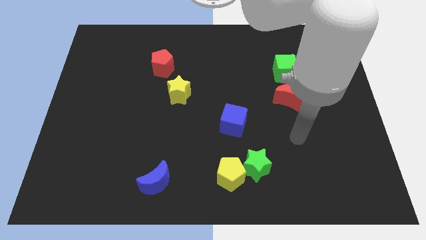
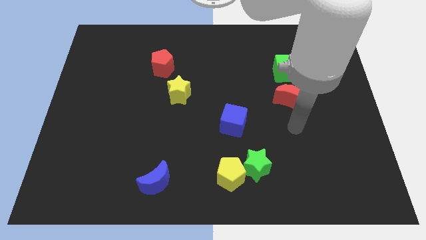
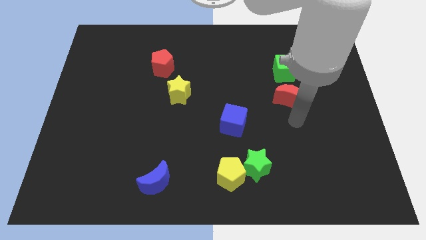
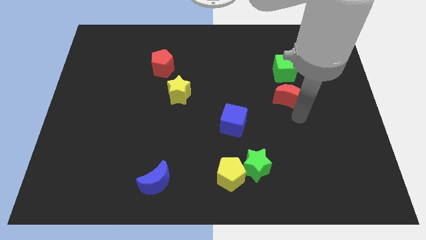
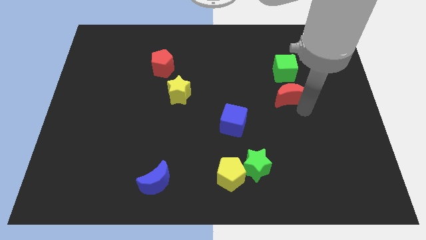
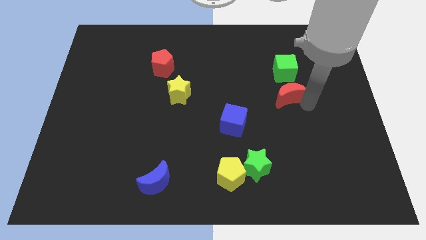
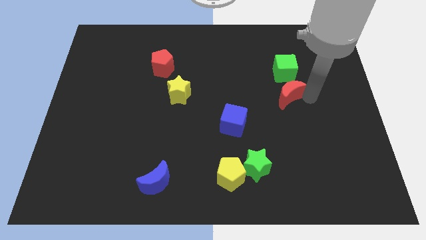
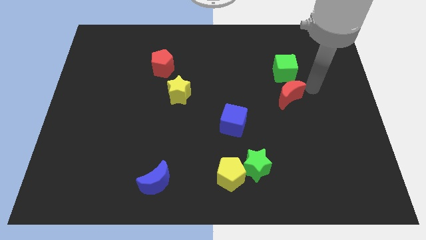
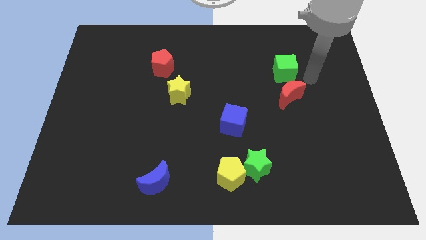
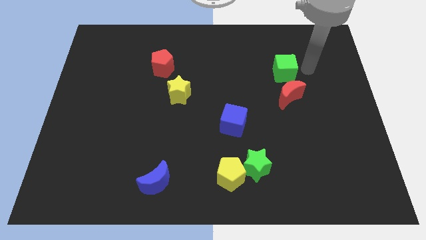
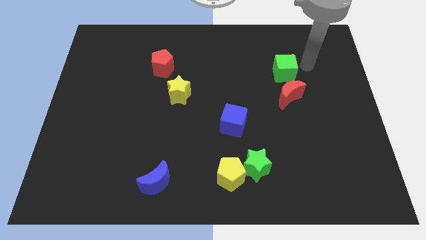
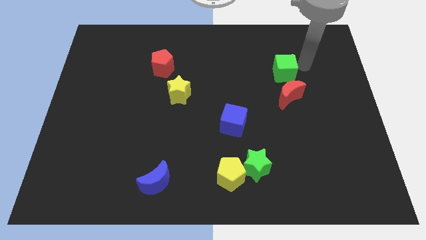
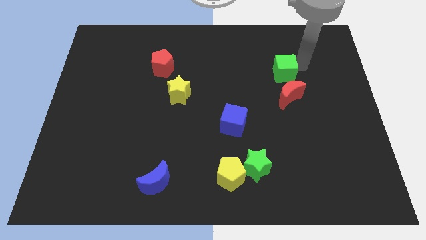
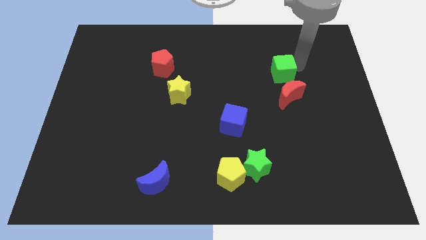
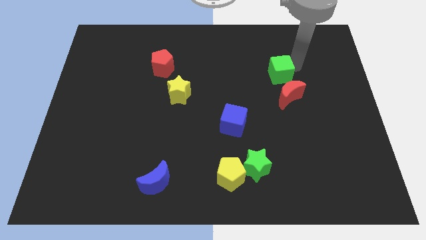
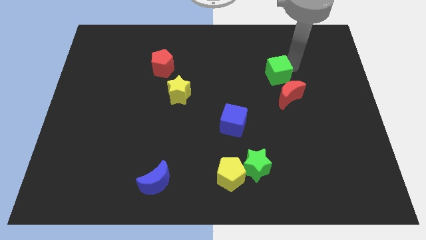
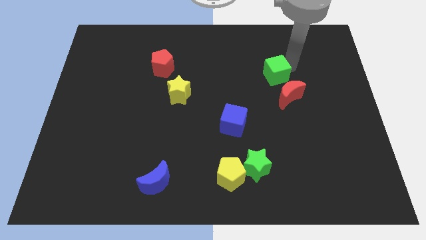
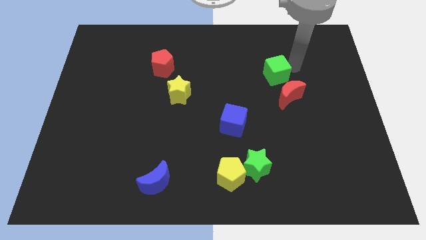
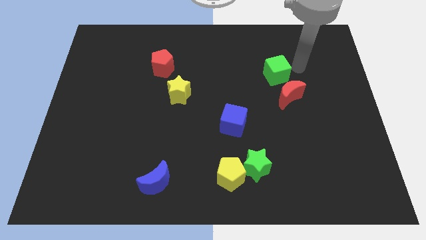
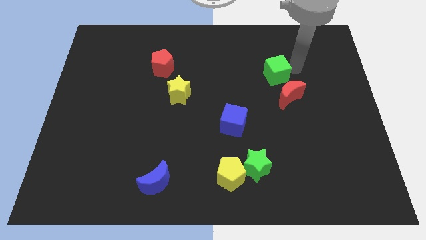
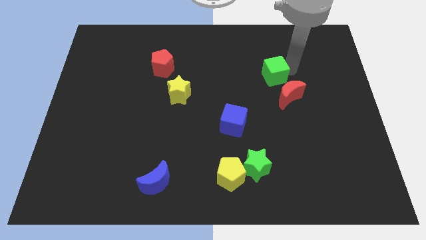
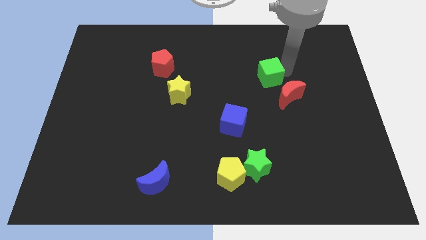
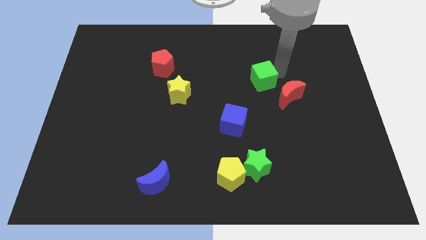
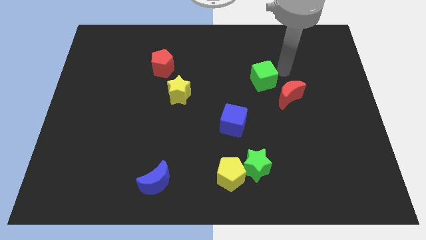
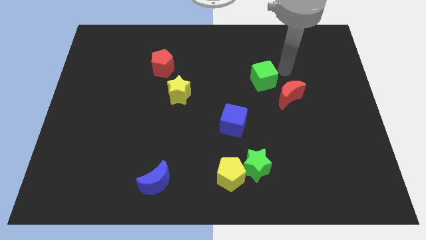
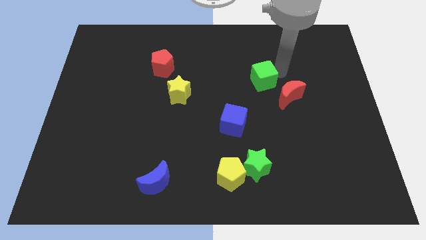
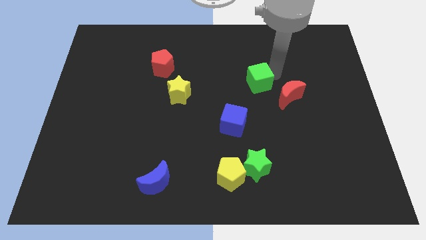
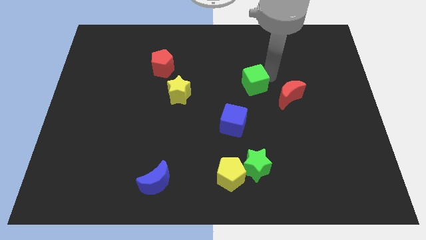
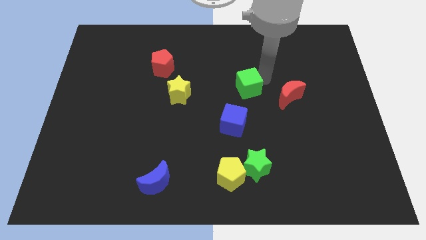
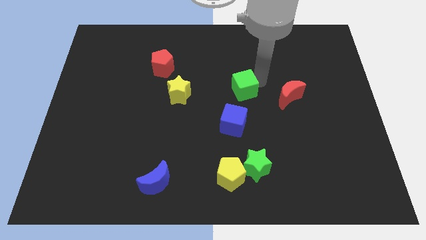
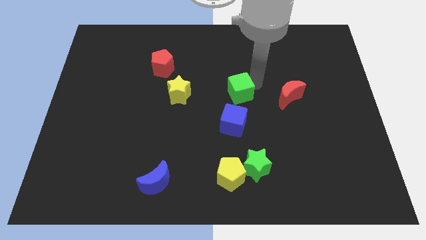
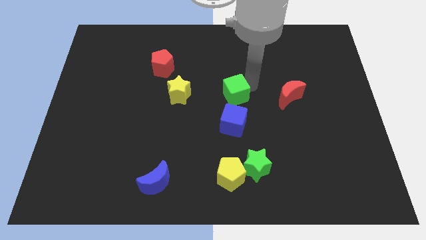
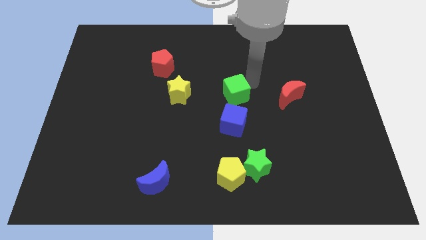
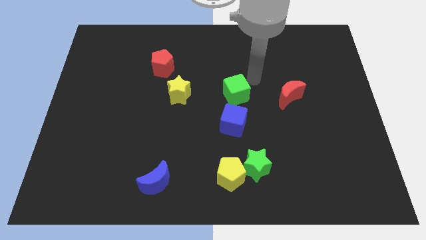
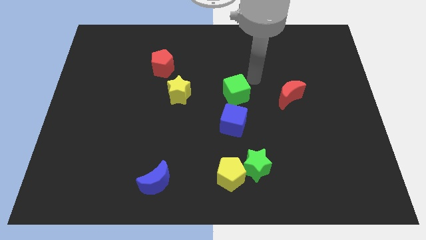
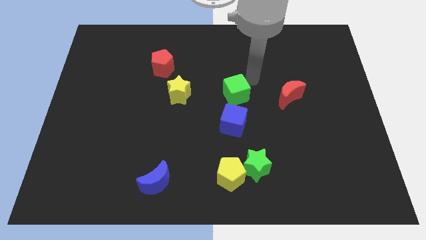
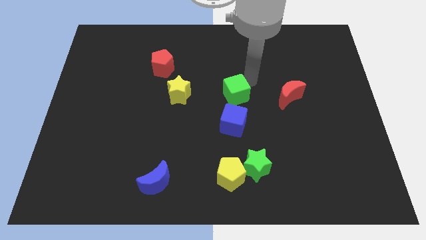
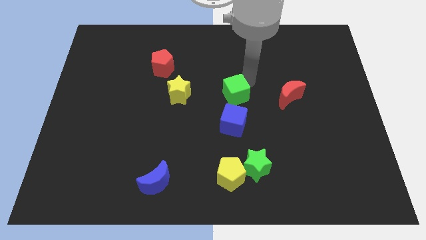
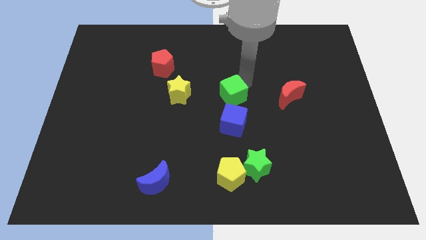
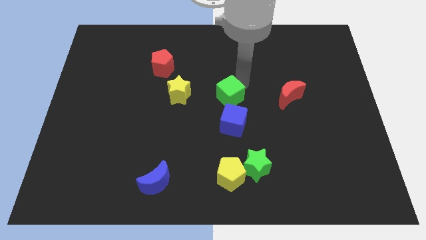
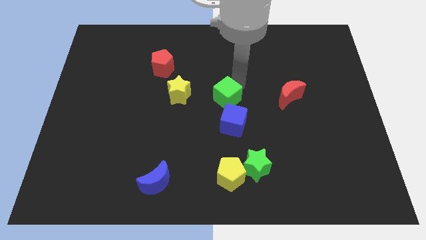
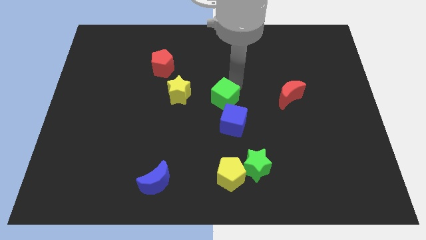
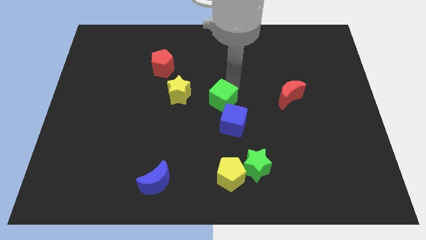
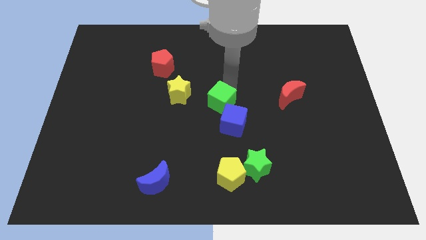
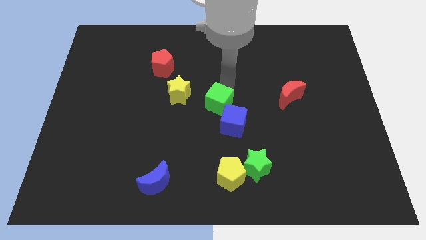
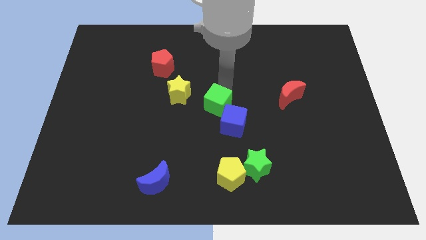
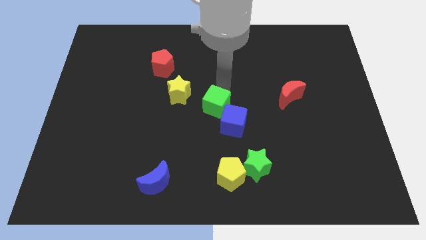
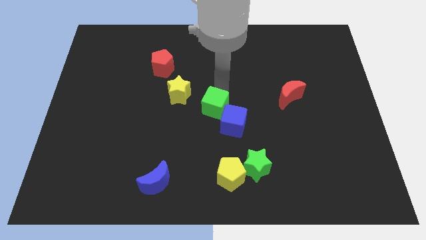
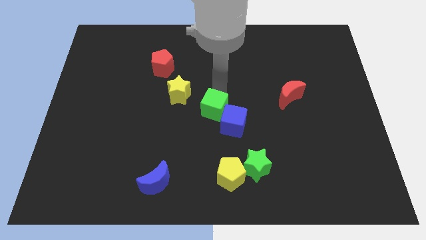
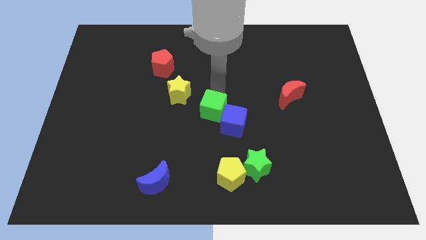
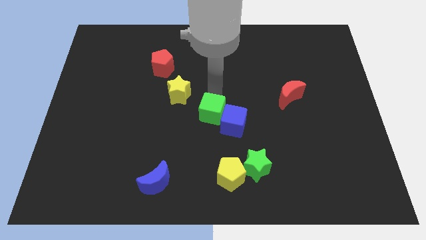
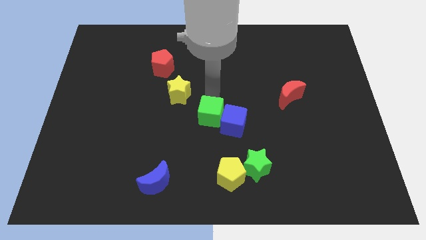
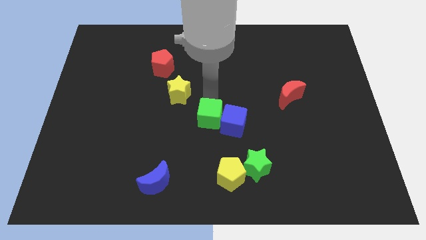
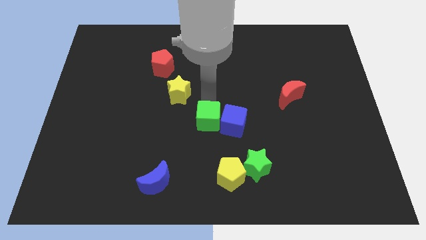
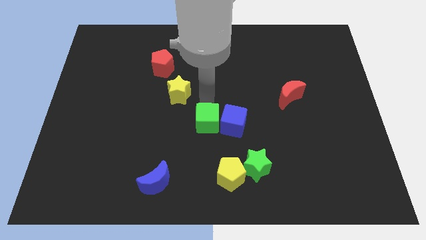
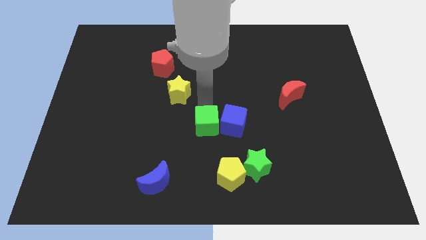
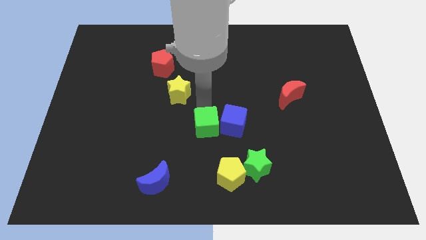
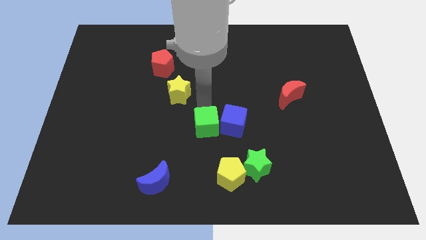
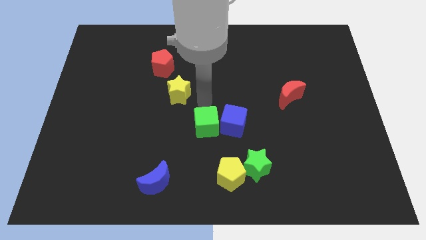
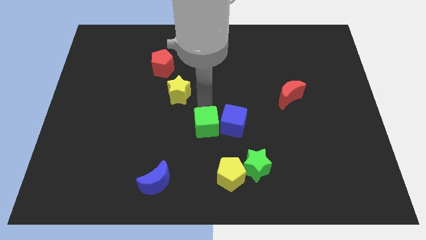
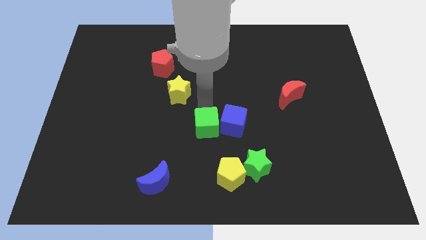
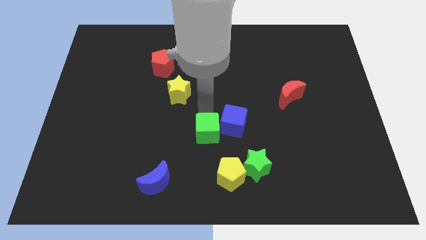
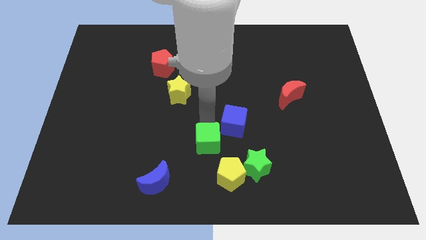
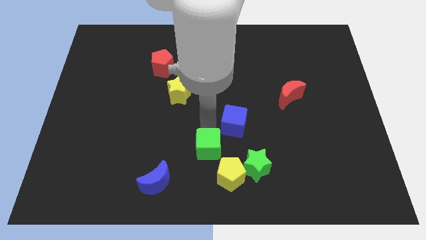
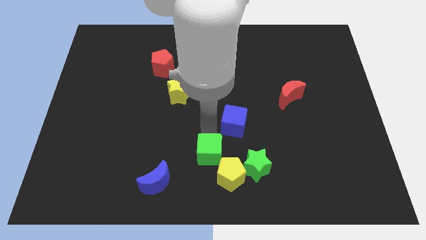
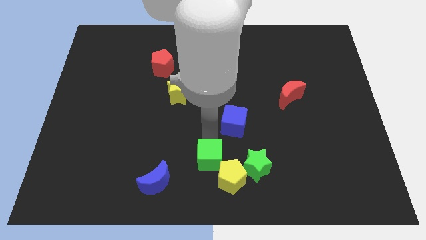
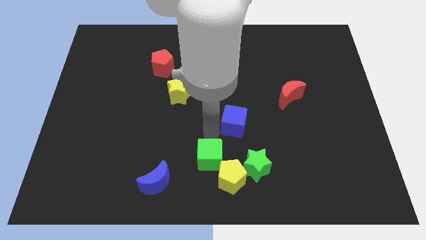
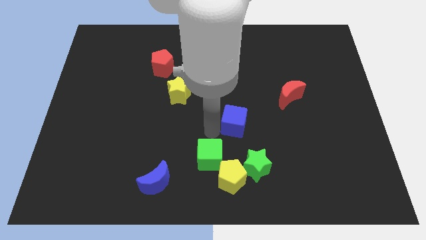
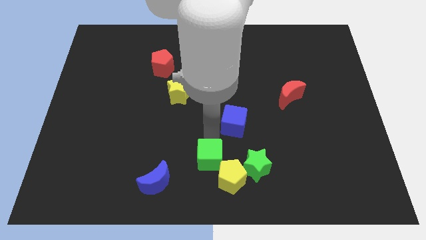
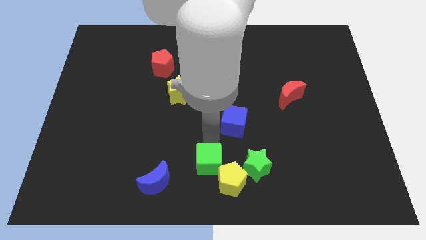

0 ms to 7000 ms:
move the green cube right of the blue moon

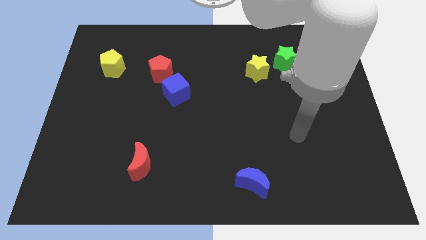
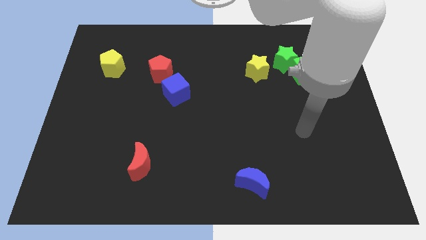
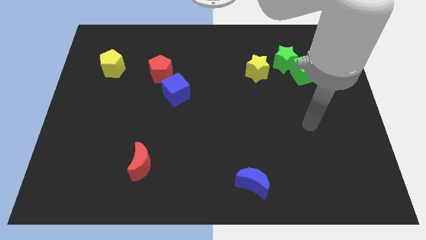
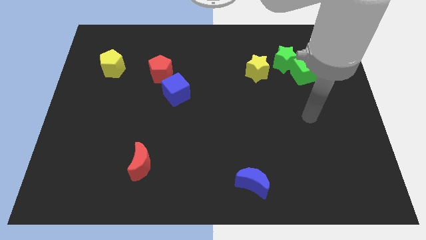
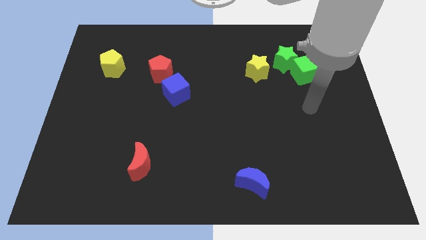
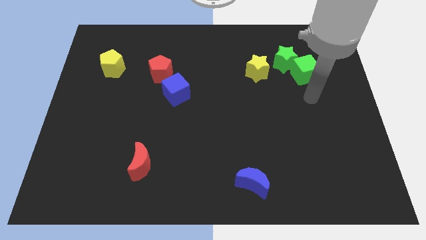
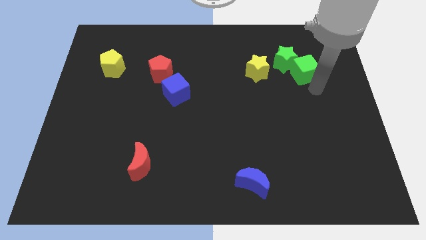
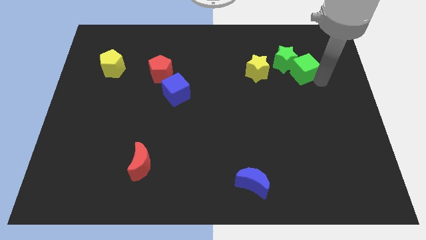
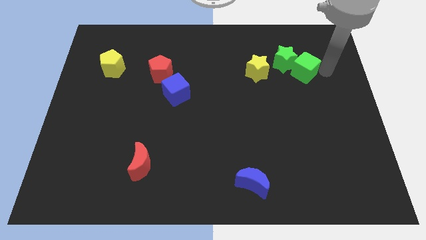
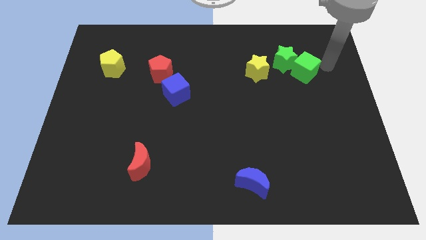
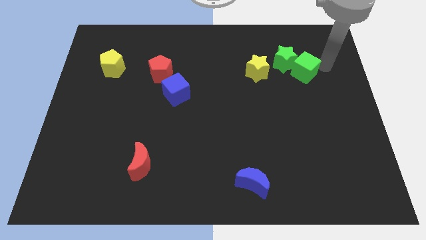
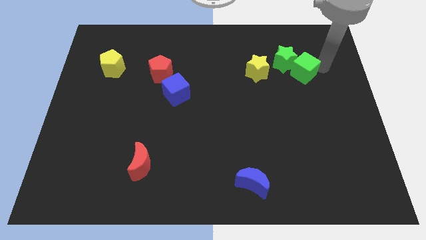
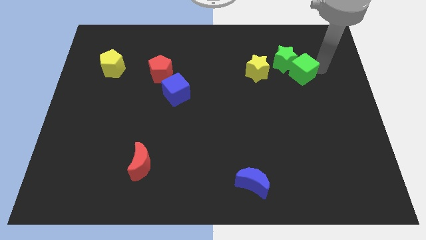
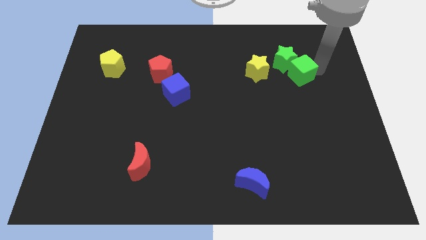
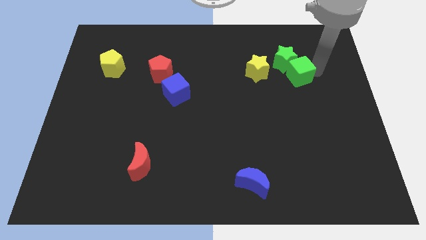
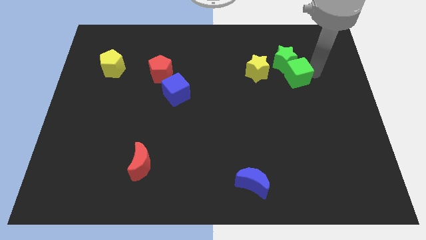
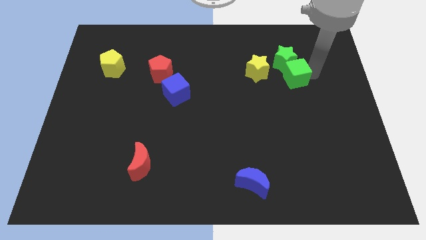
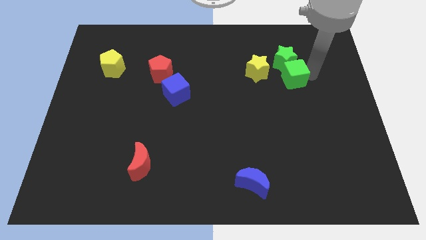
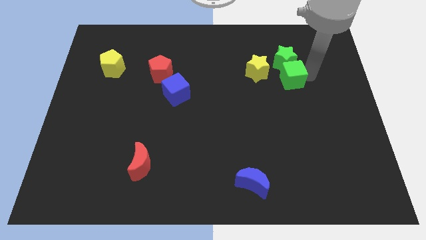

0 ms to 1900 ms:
move the green cube diagonally down and to the left of the green star
